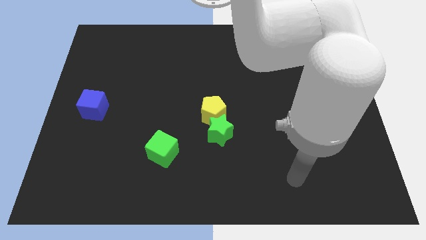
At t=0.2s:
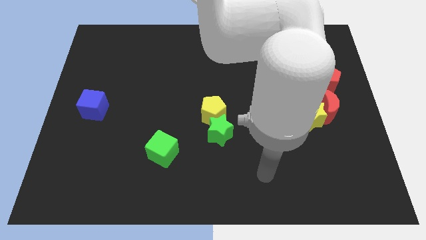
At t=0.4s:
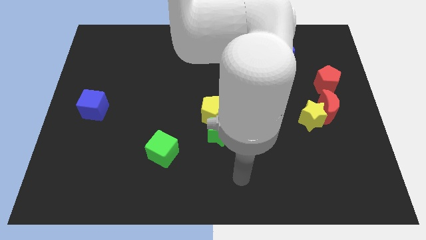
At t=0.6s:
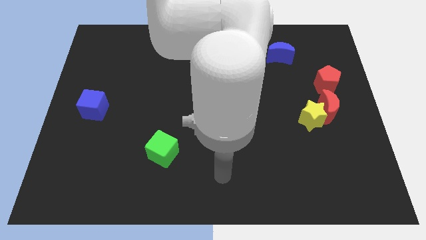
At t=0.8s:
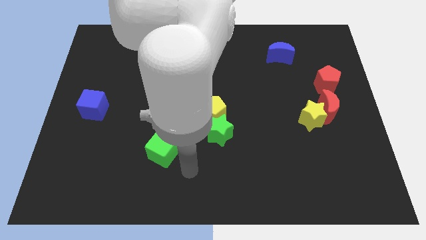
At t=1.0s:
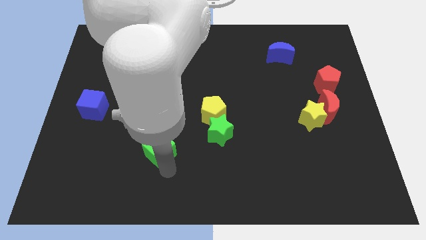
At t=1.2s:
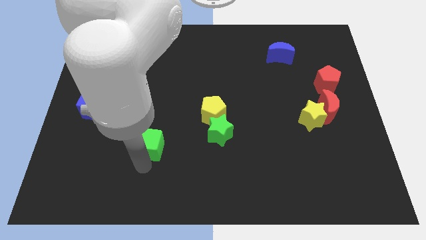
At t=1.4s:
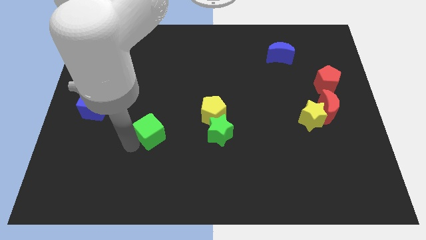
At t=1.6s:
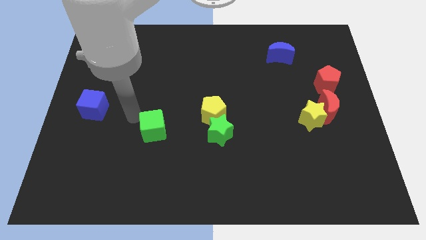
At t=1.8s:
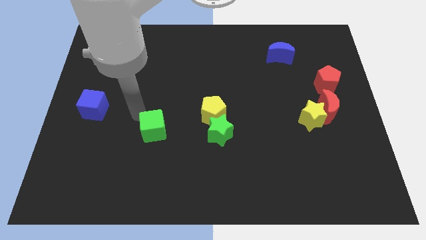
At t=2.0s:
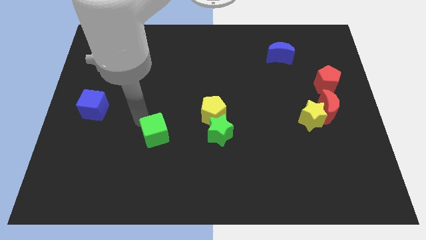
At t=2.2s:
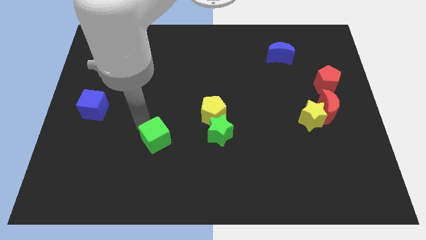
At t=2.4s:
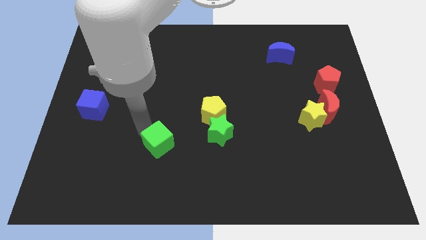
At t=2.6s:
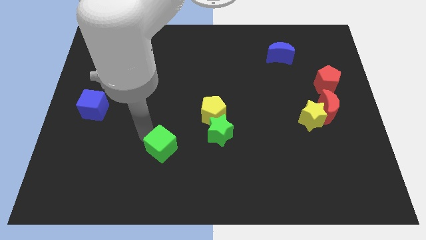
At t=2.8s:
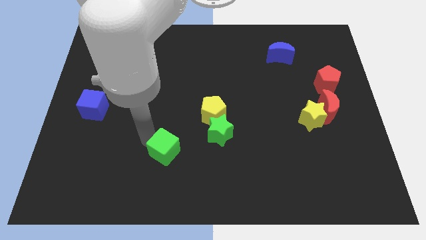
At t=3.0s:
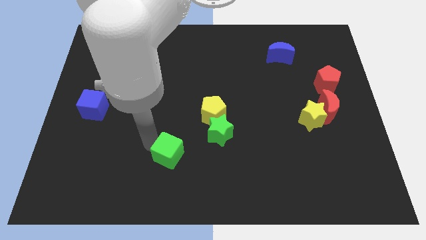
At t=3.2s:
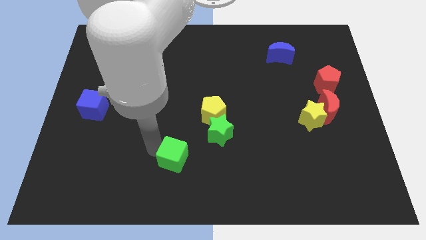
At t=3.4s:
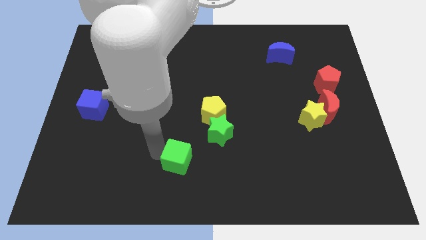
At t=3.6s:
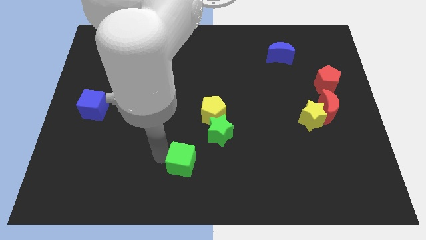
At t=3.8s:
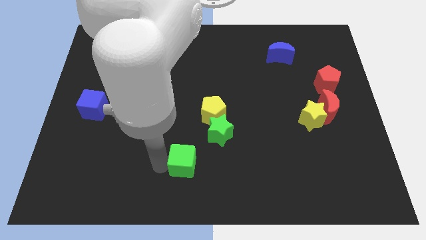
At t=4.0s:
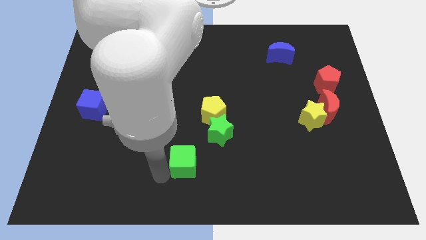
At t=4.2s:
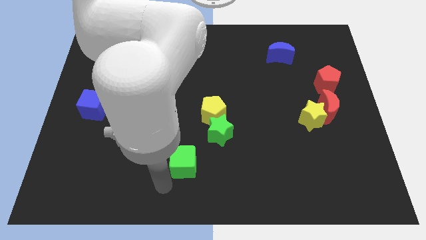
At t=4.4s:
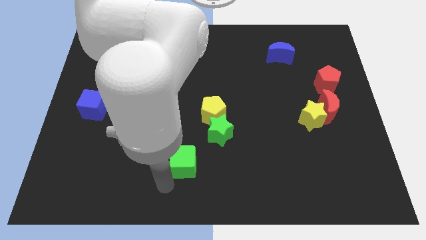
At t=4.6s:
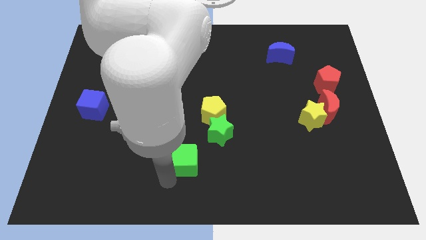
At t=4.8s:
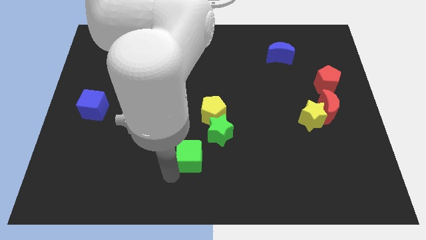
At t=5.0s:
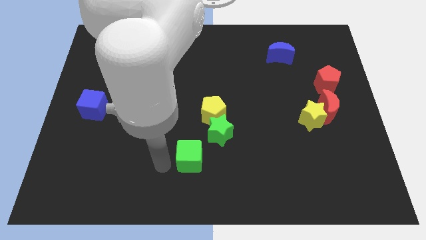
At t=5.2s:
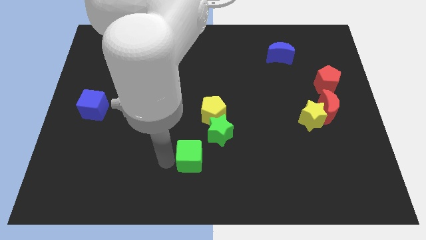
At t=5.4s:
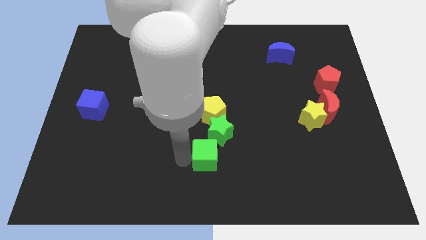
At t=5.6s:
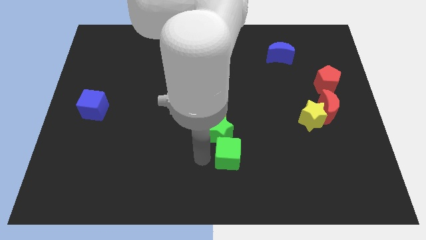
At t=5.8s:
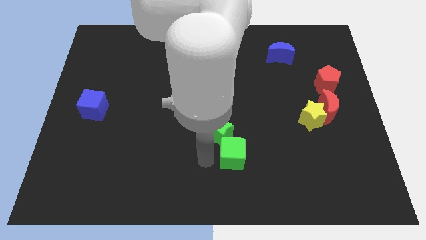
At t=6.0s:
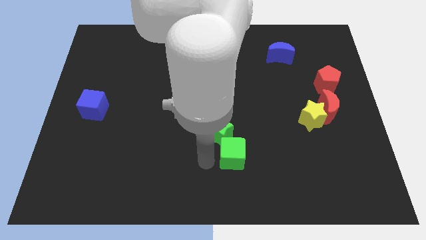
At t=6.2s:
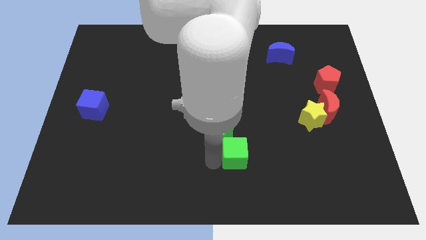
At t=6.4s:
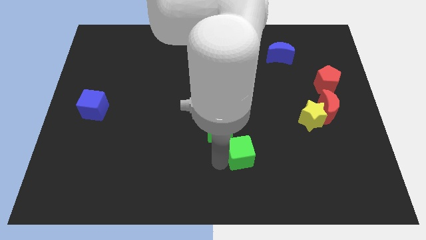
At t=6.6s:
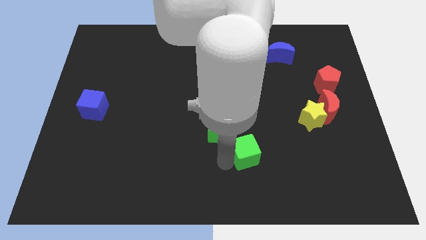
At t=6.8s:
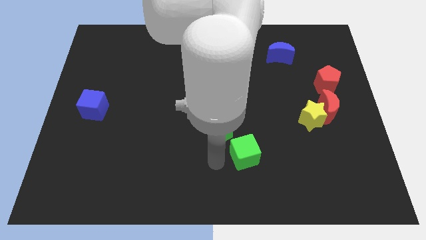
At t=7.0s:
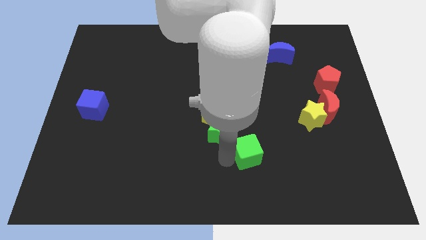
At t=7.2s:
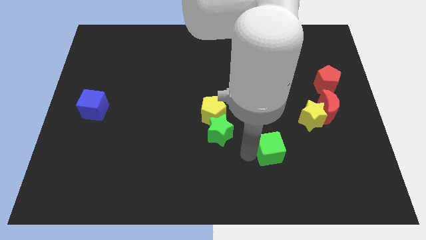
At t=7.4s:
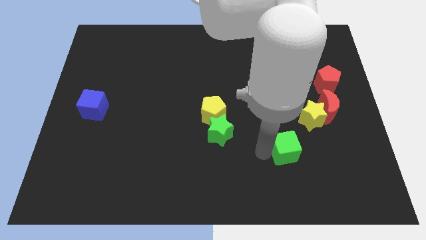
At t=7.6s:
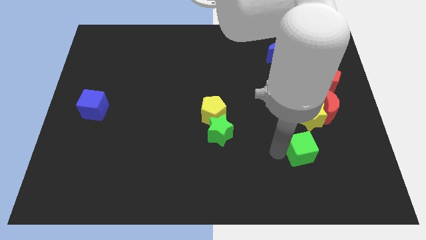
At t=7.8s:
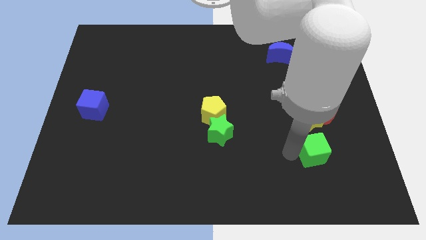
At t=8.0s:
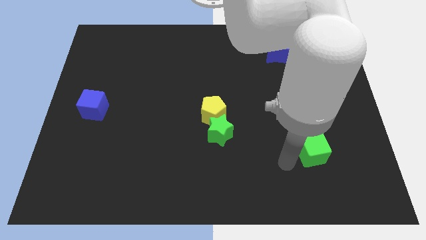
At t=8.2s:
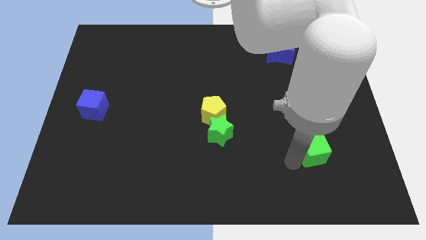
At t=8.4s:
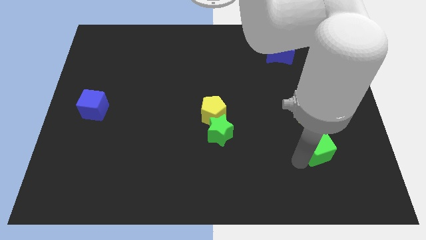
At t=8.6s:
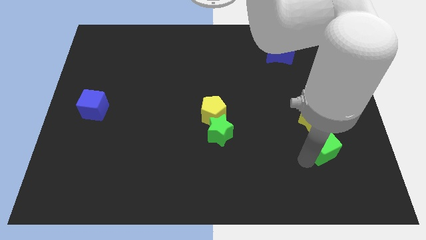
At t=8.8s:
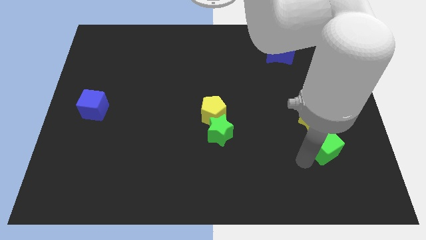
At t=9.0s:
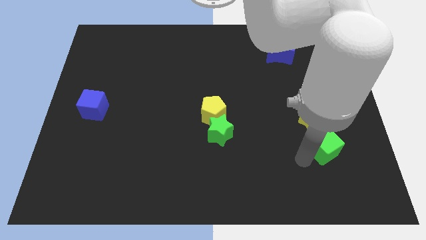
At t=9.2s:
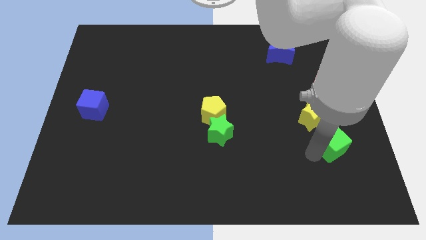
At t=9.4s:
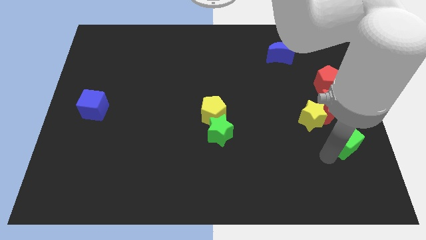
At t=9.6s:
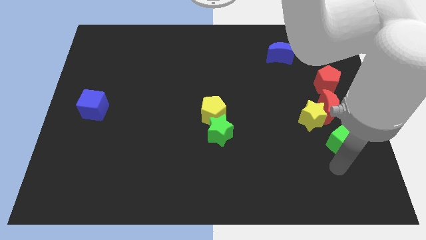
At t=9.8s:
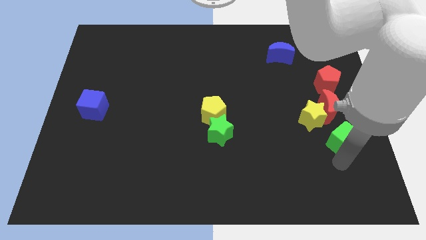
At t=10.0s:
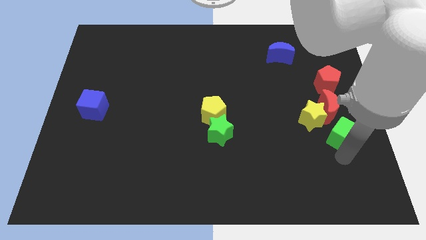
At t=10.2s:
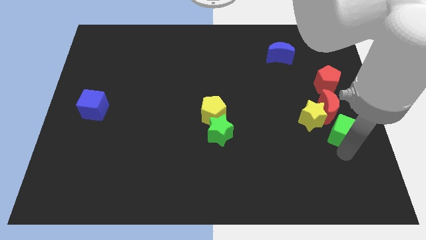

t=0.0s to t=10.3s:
push the green cube to the right side of the board
